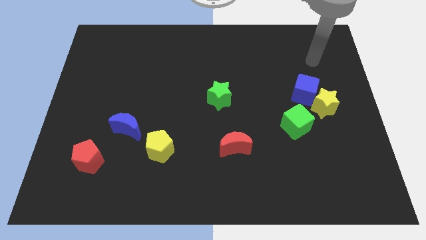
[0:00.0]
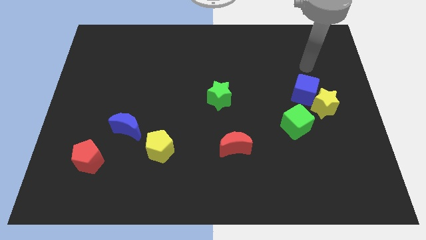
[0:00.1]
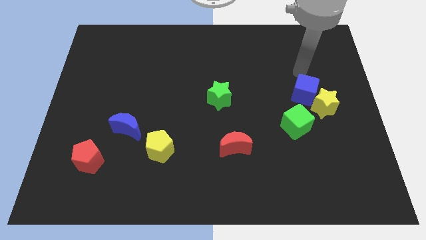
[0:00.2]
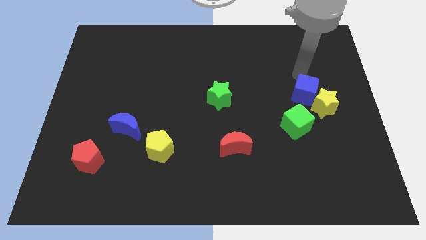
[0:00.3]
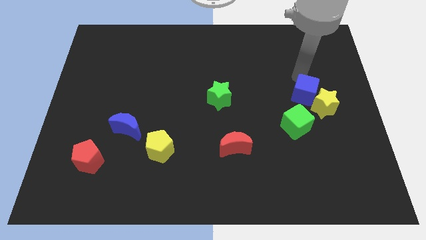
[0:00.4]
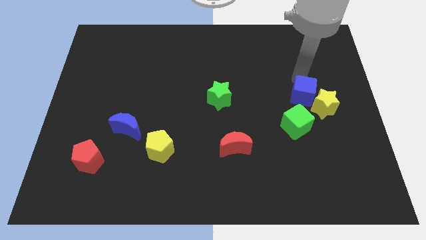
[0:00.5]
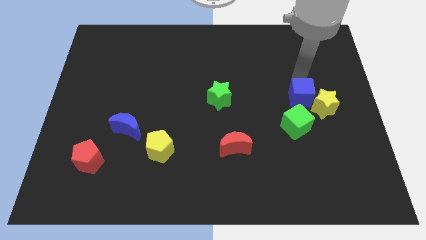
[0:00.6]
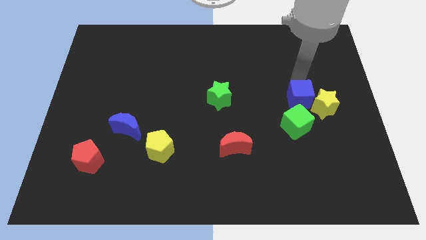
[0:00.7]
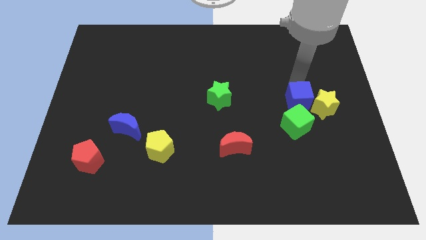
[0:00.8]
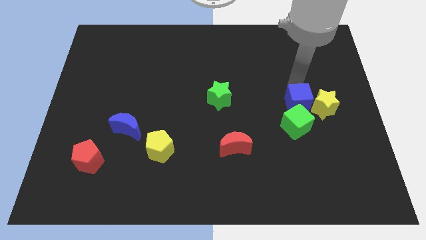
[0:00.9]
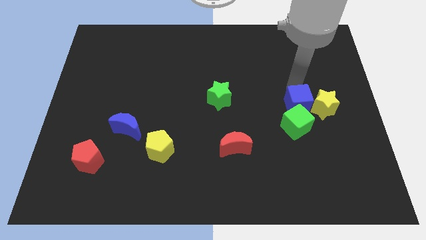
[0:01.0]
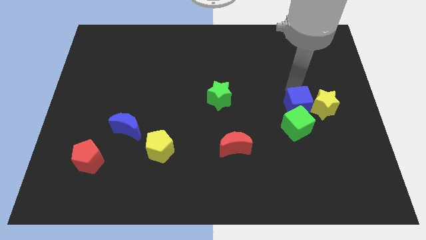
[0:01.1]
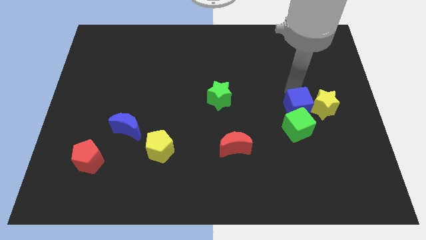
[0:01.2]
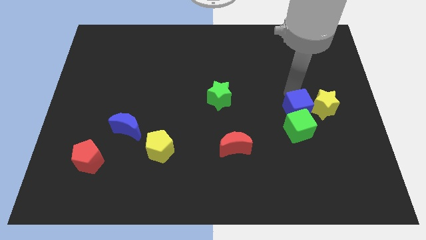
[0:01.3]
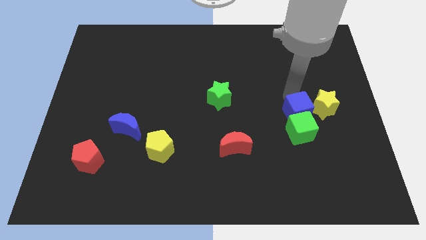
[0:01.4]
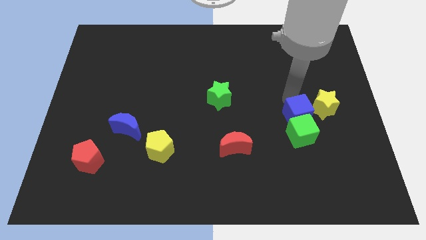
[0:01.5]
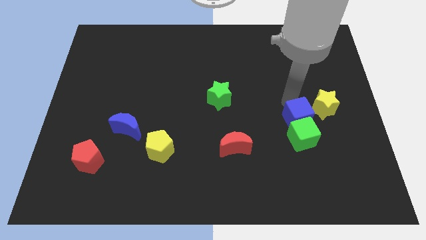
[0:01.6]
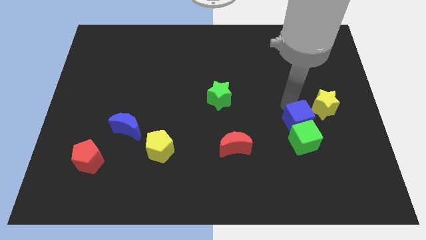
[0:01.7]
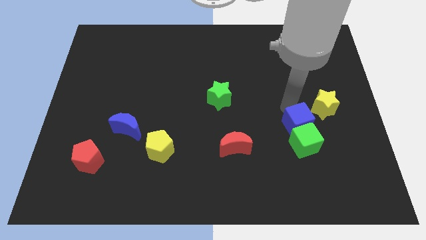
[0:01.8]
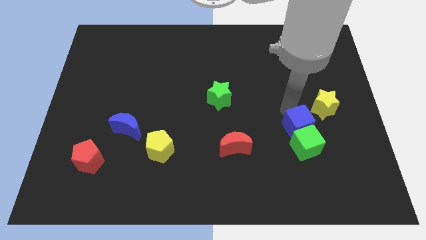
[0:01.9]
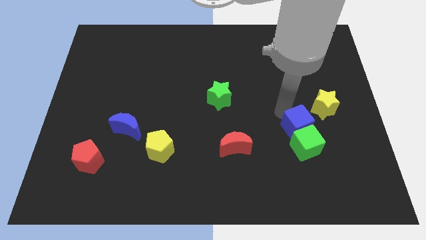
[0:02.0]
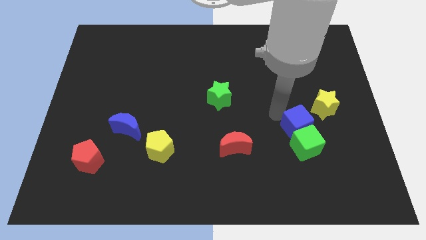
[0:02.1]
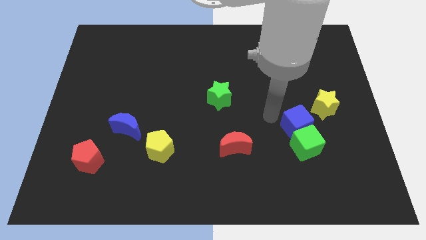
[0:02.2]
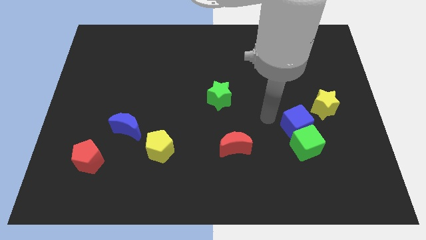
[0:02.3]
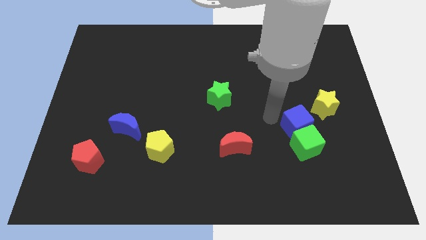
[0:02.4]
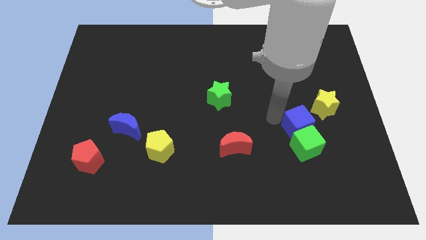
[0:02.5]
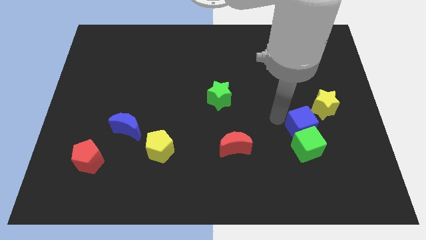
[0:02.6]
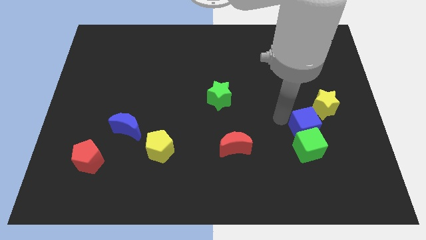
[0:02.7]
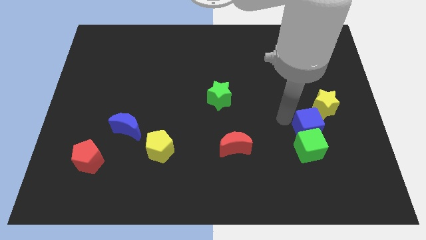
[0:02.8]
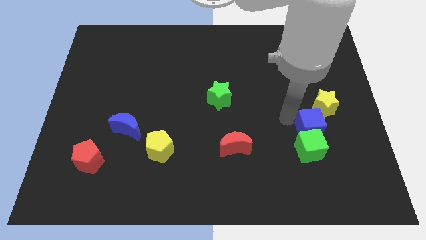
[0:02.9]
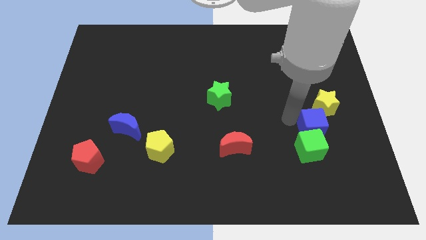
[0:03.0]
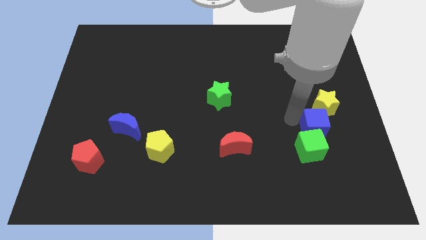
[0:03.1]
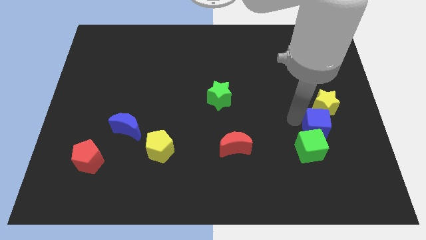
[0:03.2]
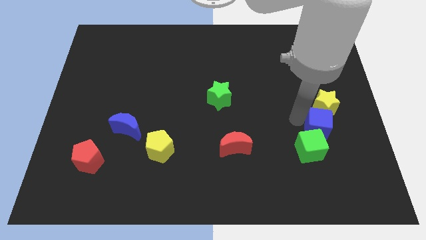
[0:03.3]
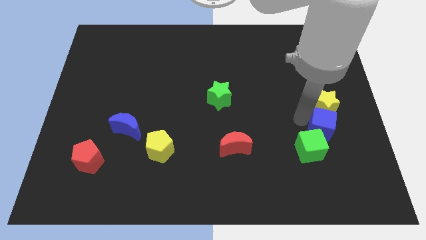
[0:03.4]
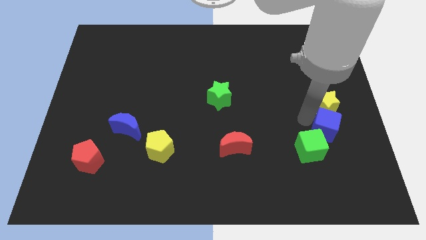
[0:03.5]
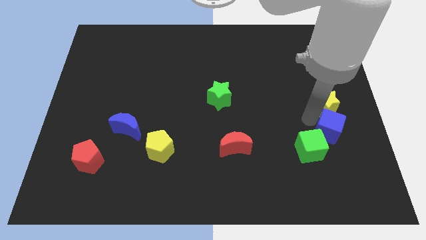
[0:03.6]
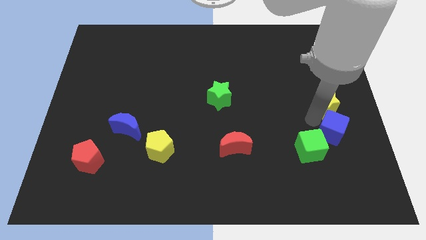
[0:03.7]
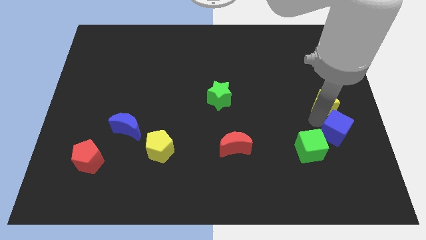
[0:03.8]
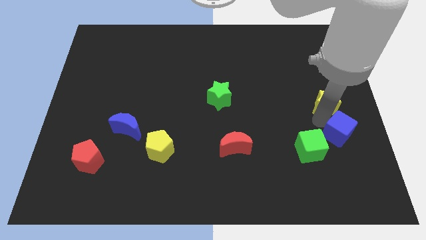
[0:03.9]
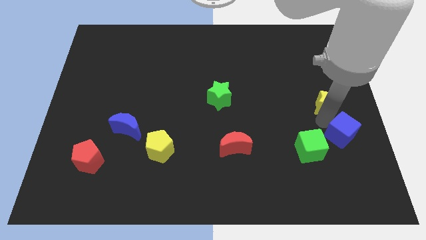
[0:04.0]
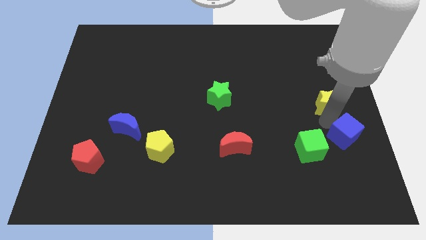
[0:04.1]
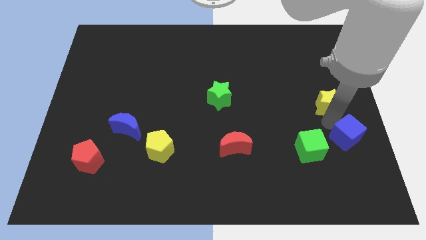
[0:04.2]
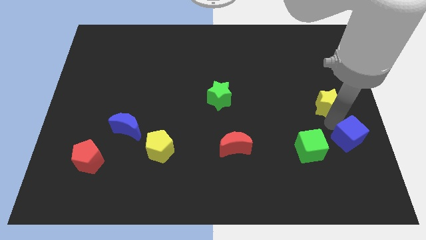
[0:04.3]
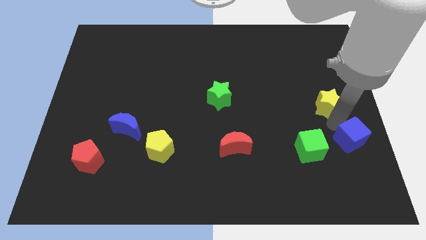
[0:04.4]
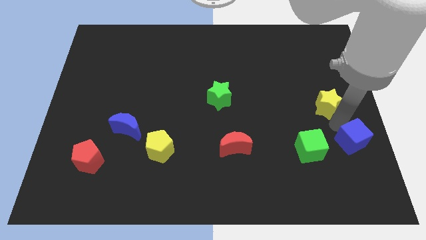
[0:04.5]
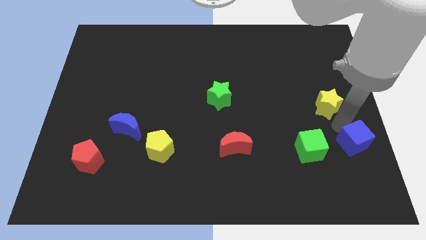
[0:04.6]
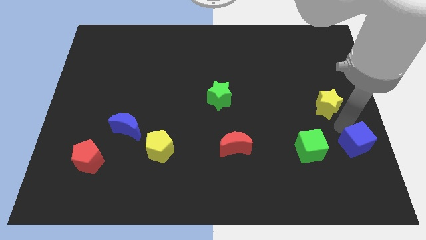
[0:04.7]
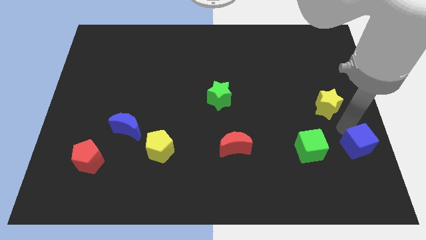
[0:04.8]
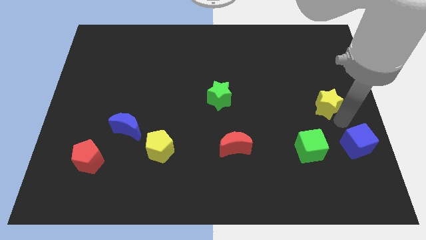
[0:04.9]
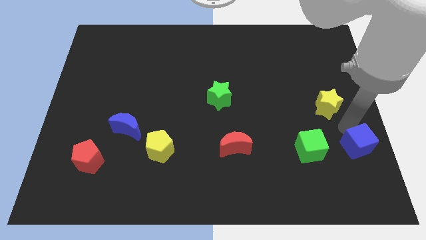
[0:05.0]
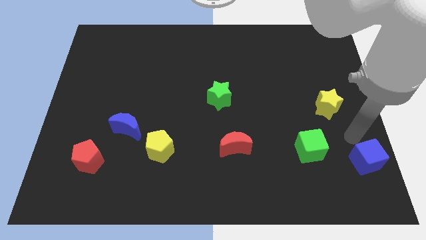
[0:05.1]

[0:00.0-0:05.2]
push the blue cube to the bottom right of the board
